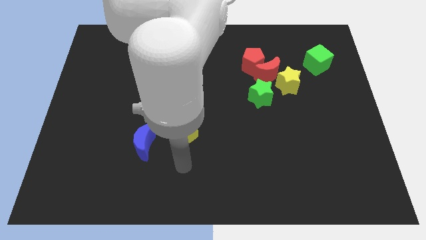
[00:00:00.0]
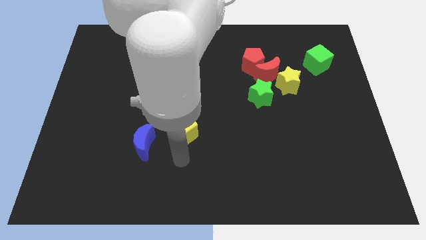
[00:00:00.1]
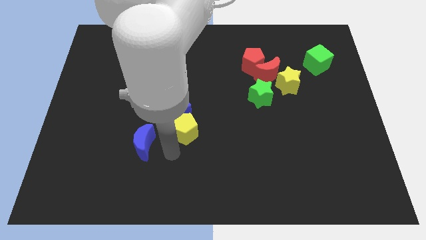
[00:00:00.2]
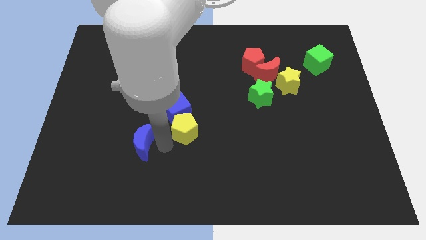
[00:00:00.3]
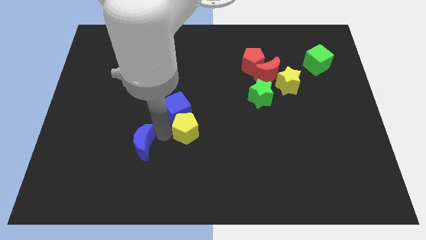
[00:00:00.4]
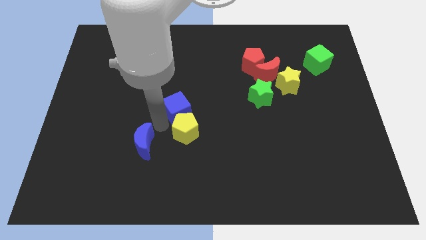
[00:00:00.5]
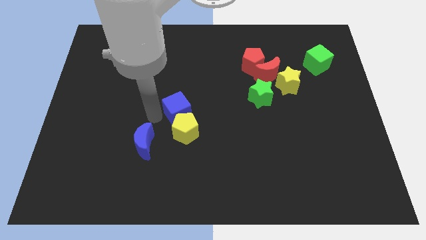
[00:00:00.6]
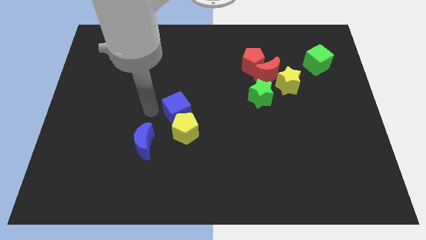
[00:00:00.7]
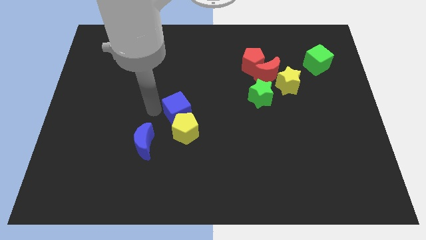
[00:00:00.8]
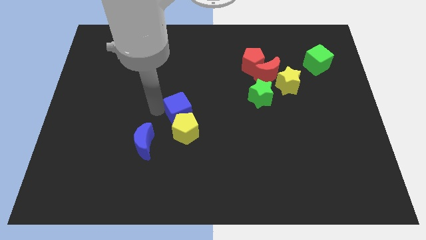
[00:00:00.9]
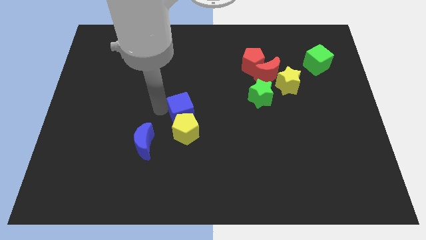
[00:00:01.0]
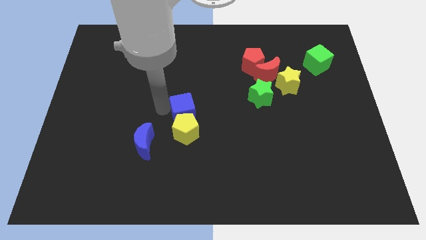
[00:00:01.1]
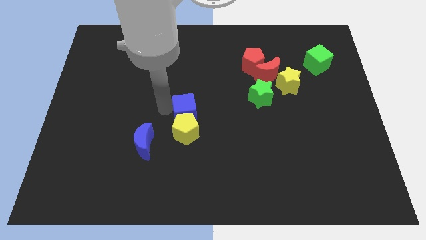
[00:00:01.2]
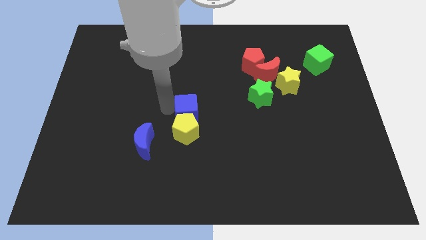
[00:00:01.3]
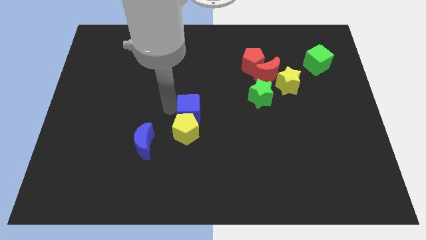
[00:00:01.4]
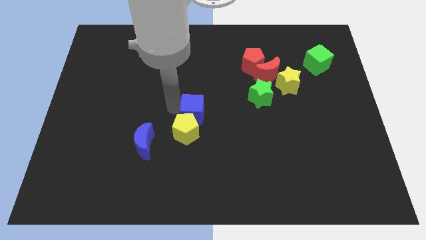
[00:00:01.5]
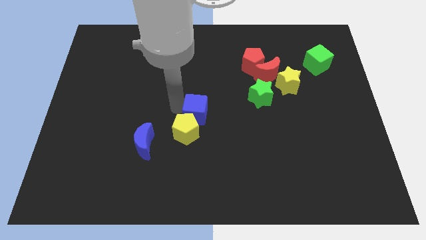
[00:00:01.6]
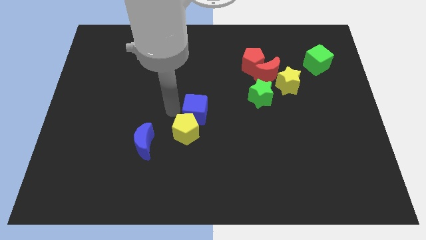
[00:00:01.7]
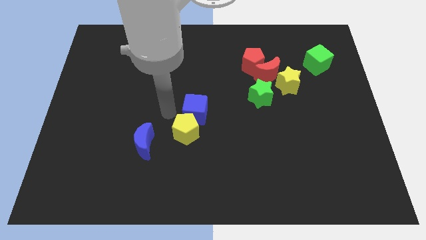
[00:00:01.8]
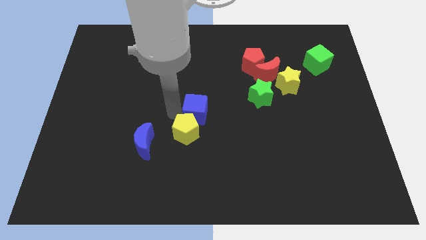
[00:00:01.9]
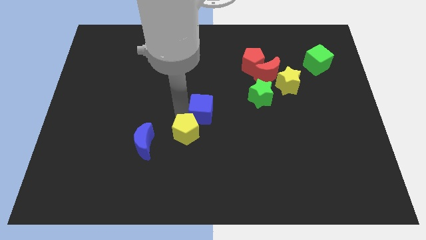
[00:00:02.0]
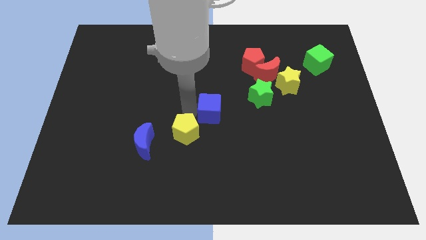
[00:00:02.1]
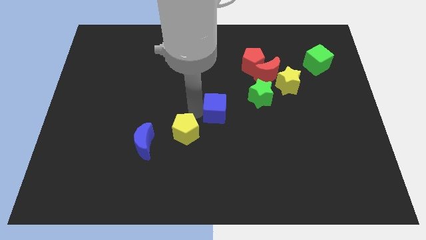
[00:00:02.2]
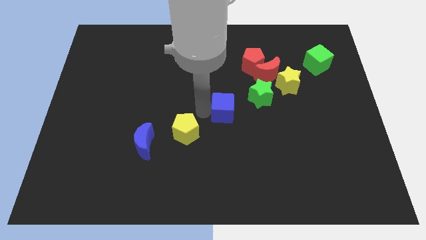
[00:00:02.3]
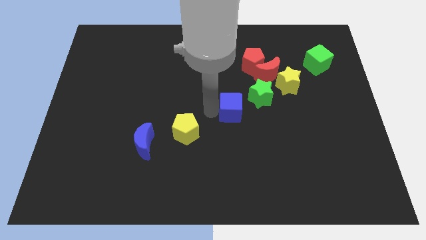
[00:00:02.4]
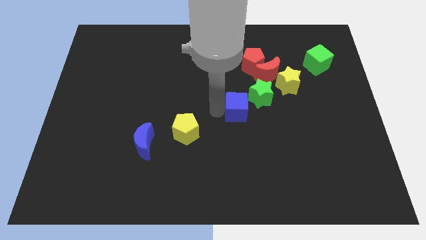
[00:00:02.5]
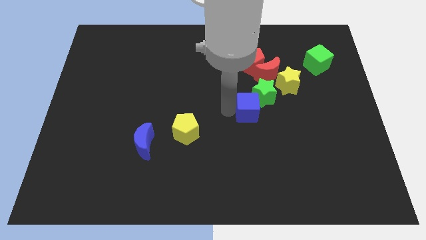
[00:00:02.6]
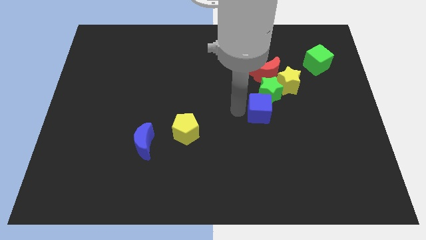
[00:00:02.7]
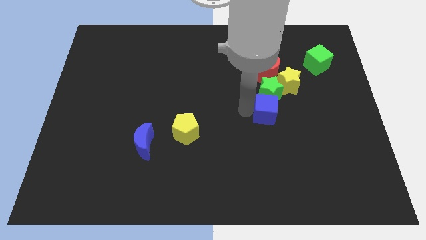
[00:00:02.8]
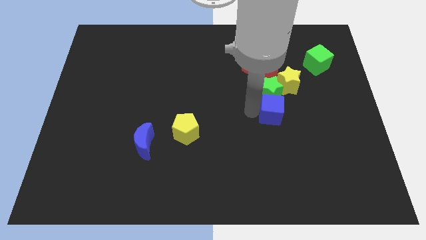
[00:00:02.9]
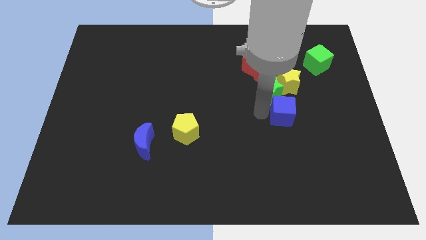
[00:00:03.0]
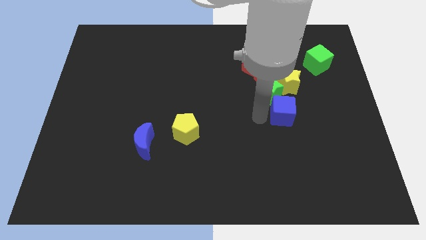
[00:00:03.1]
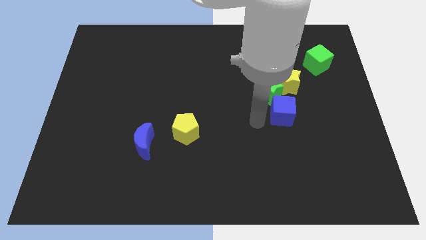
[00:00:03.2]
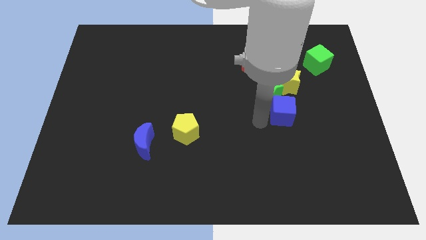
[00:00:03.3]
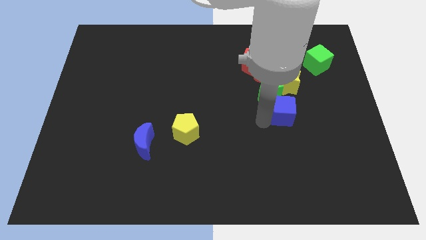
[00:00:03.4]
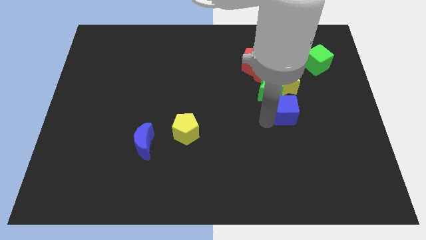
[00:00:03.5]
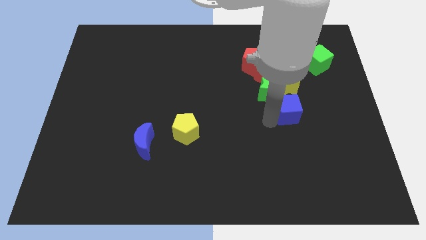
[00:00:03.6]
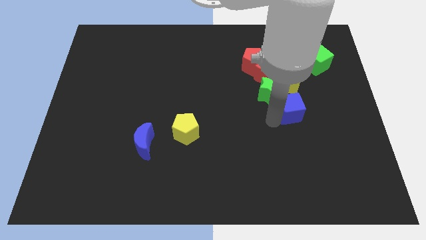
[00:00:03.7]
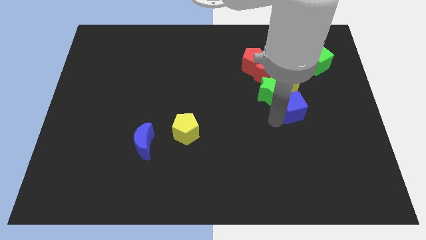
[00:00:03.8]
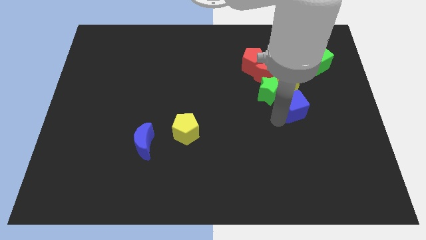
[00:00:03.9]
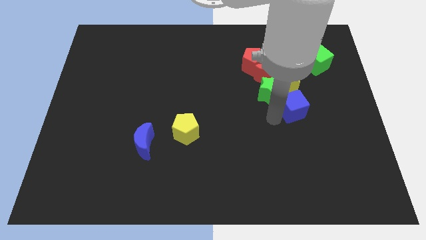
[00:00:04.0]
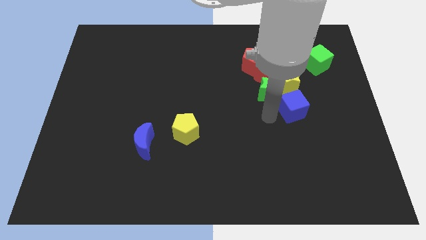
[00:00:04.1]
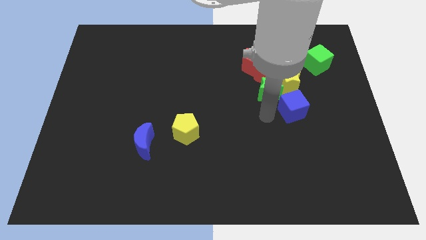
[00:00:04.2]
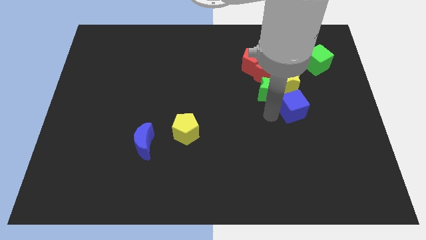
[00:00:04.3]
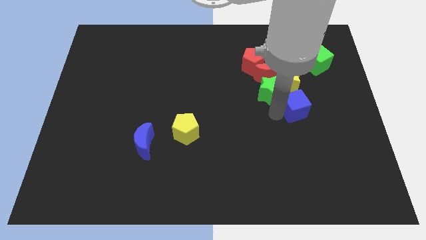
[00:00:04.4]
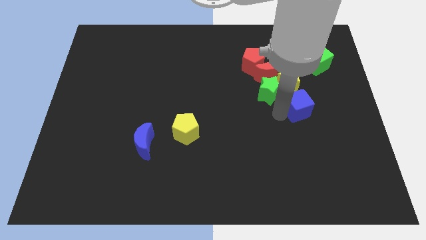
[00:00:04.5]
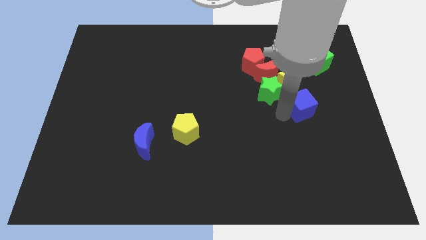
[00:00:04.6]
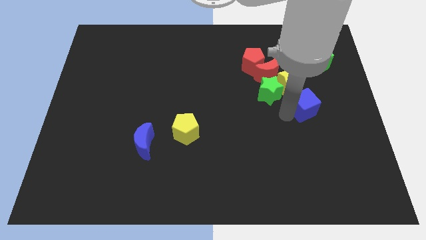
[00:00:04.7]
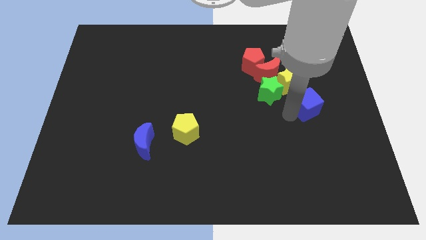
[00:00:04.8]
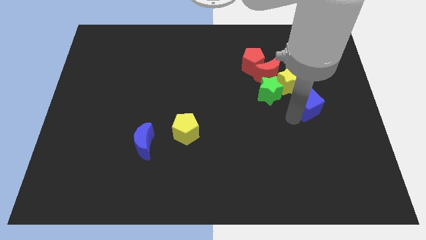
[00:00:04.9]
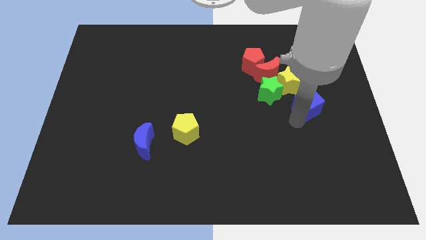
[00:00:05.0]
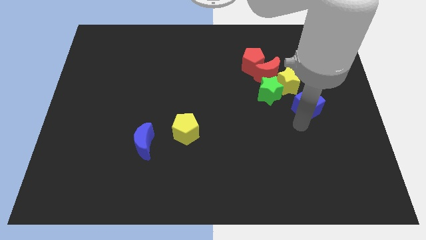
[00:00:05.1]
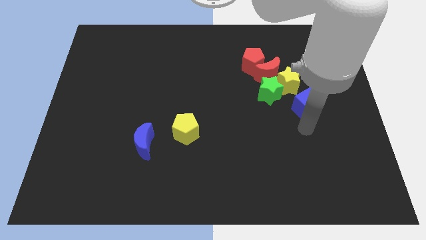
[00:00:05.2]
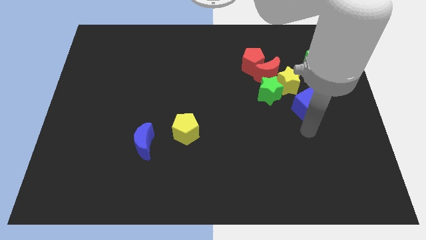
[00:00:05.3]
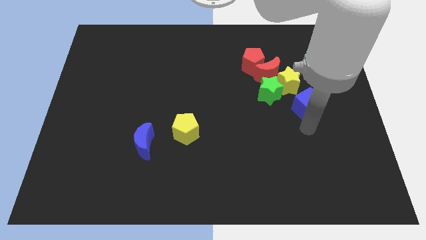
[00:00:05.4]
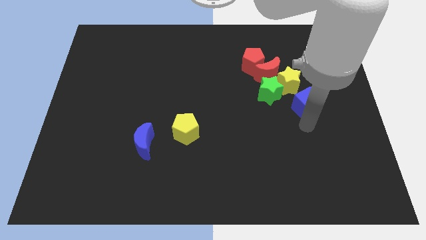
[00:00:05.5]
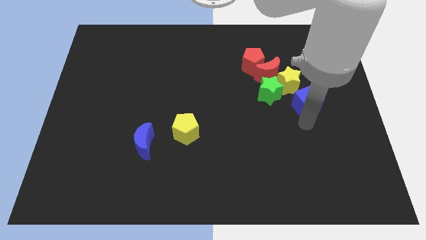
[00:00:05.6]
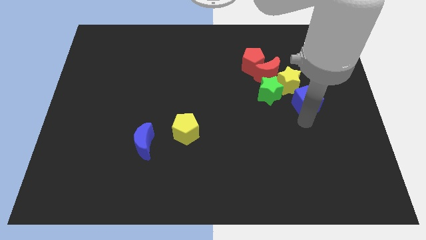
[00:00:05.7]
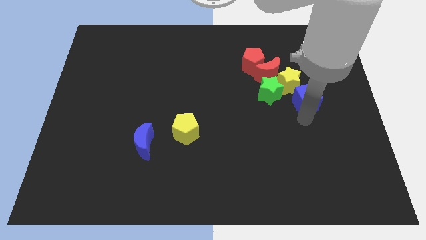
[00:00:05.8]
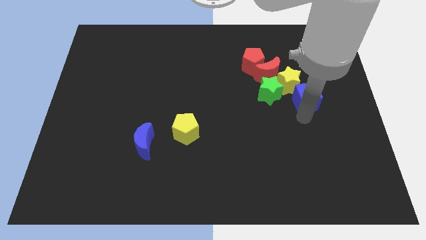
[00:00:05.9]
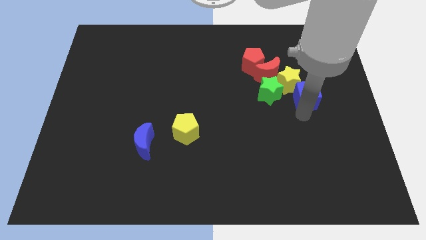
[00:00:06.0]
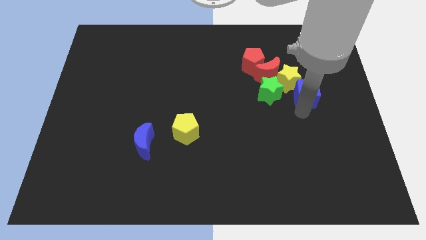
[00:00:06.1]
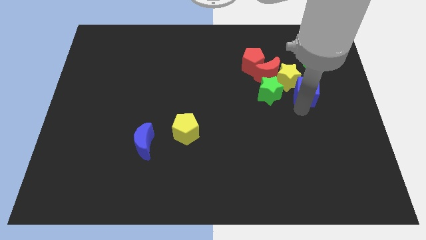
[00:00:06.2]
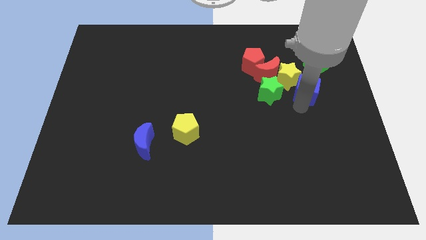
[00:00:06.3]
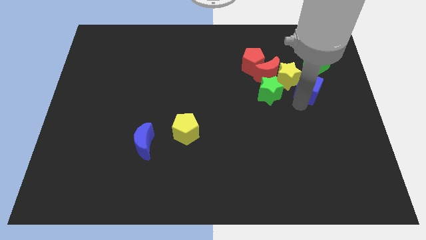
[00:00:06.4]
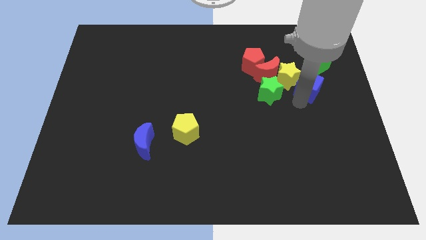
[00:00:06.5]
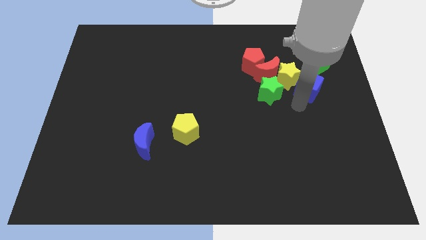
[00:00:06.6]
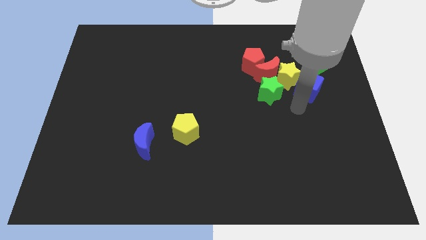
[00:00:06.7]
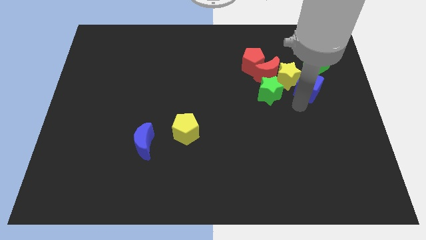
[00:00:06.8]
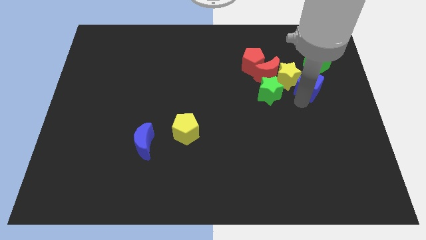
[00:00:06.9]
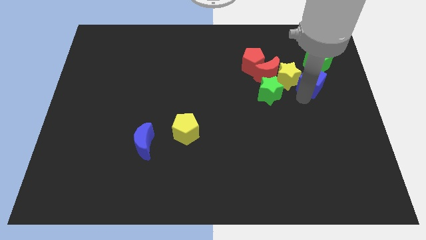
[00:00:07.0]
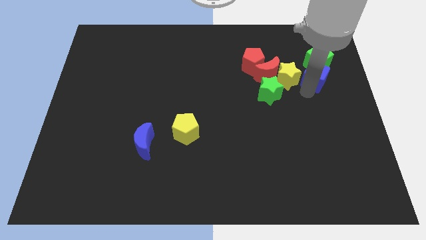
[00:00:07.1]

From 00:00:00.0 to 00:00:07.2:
slide the blue cube to the green cube
